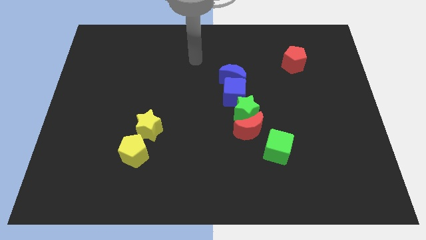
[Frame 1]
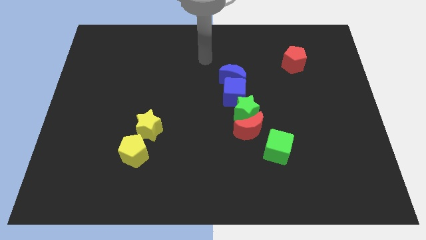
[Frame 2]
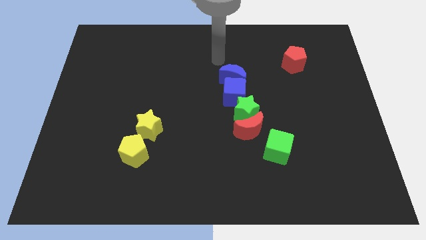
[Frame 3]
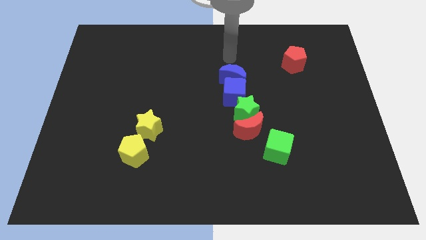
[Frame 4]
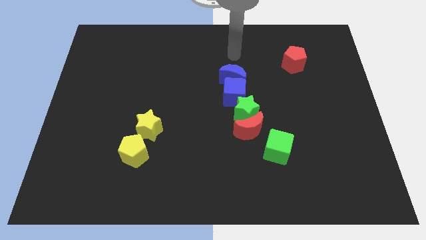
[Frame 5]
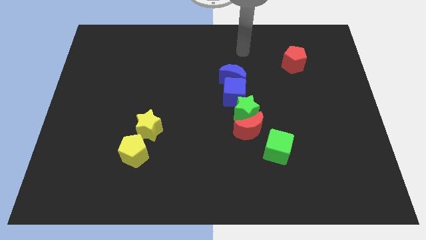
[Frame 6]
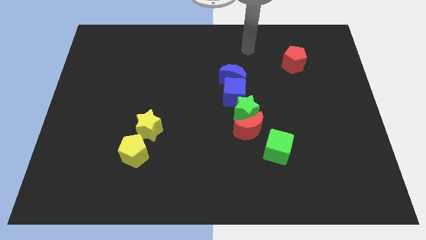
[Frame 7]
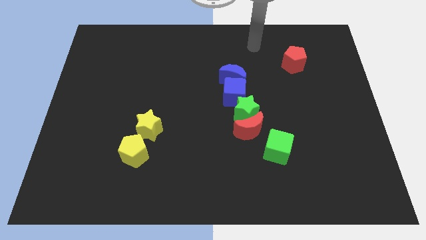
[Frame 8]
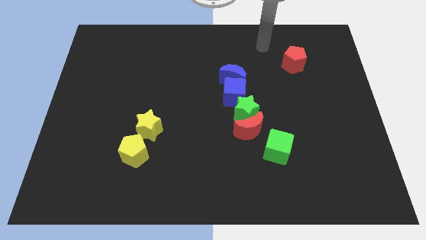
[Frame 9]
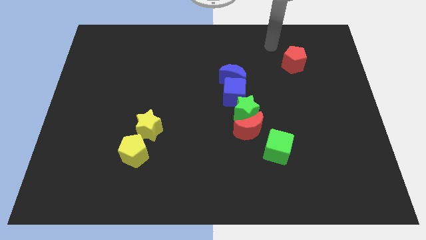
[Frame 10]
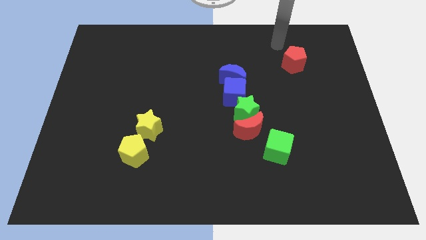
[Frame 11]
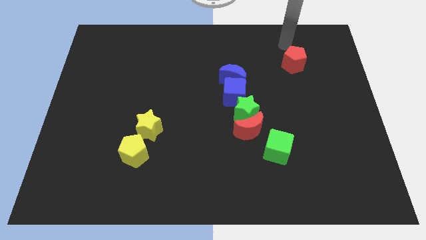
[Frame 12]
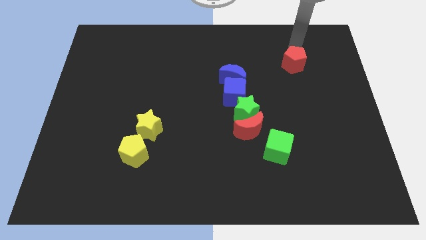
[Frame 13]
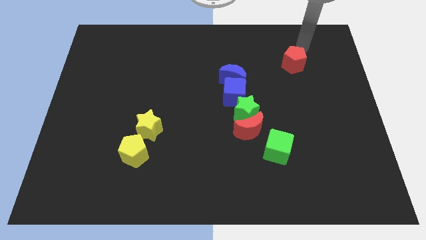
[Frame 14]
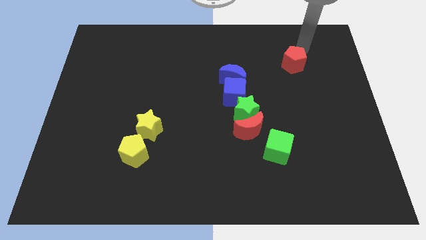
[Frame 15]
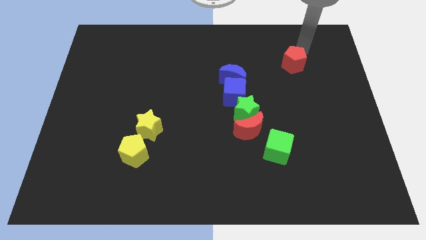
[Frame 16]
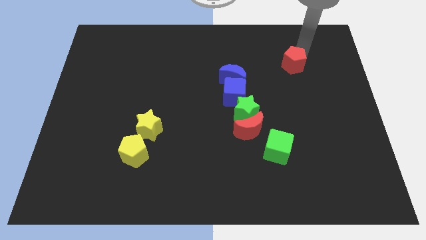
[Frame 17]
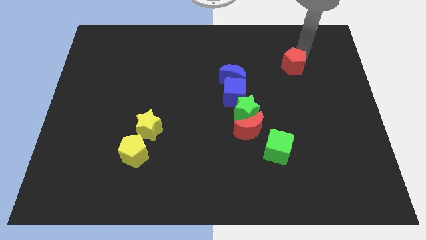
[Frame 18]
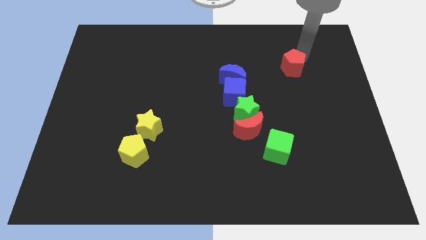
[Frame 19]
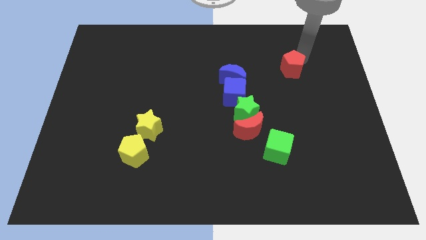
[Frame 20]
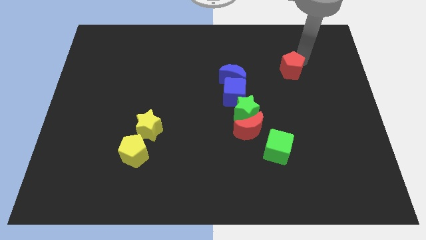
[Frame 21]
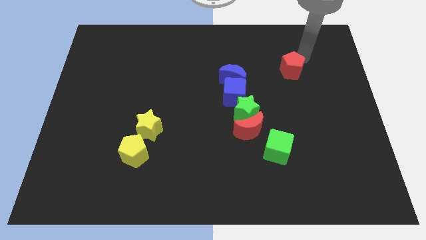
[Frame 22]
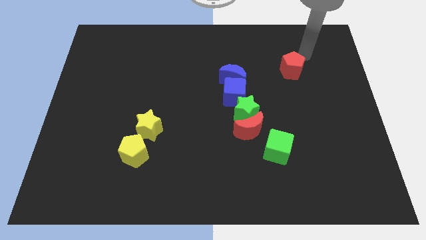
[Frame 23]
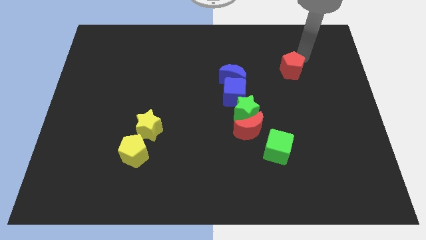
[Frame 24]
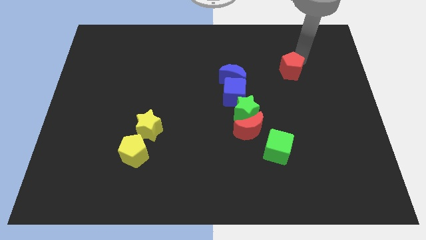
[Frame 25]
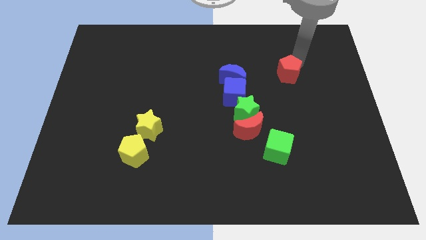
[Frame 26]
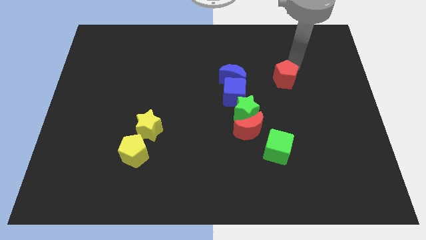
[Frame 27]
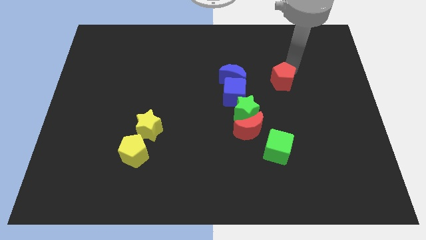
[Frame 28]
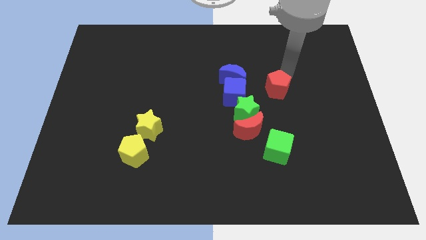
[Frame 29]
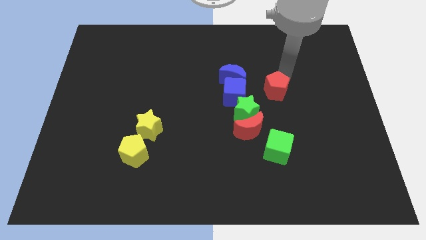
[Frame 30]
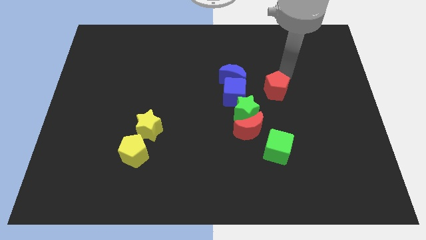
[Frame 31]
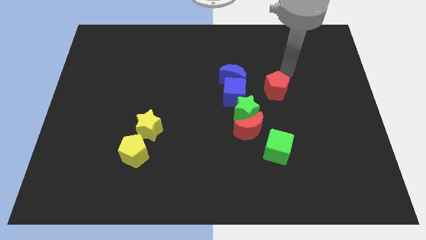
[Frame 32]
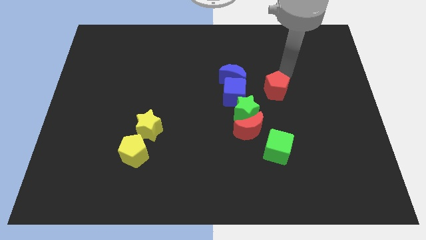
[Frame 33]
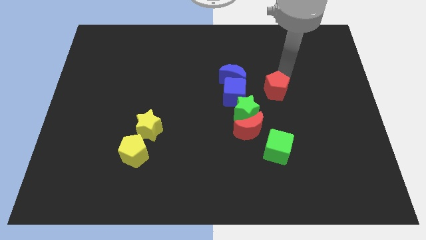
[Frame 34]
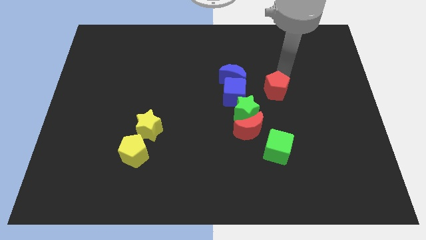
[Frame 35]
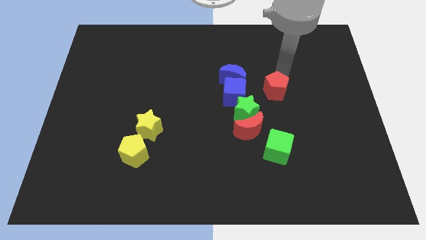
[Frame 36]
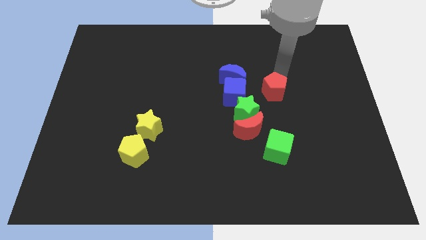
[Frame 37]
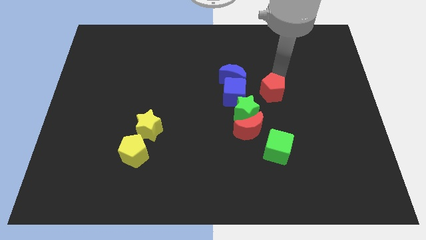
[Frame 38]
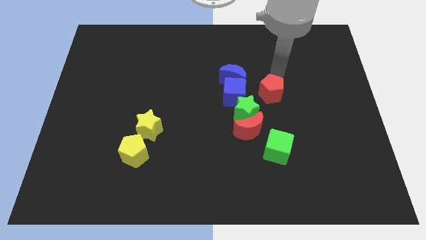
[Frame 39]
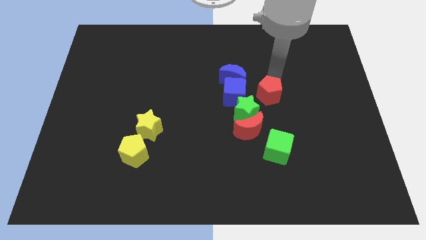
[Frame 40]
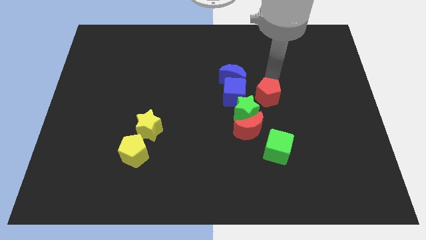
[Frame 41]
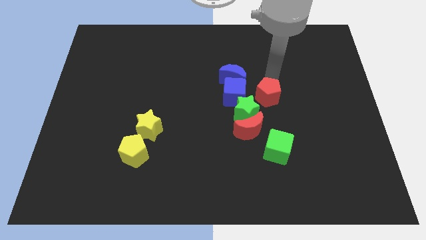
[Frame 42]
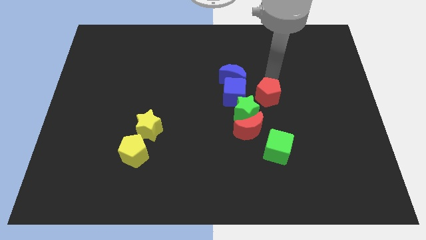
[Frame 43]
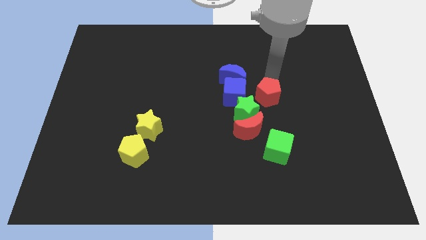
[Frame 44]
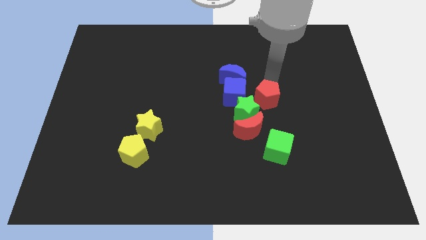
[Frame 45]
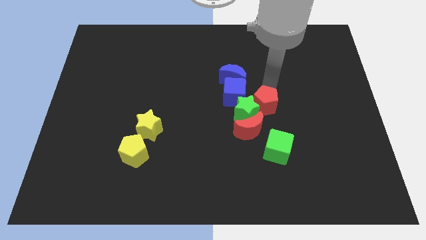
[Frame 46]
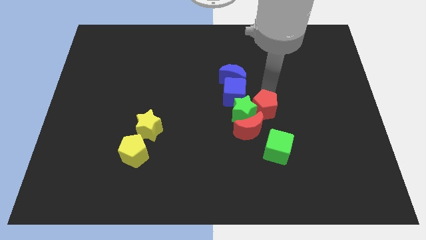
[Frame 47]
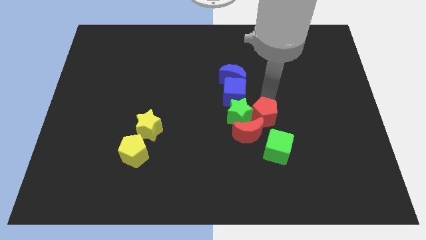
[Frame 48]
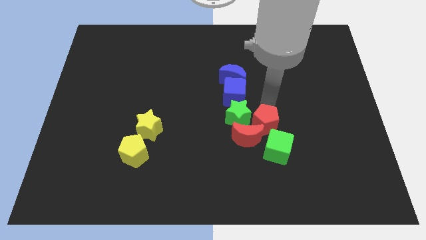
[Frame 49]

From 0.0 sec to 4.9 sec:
push the red pentagon to the red moon

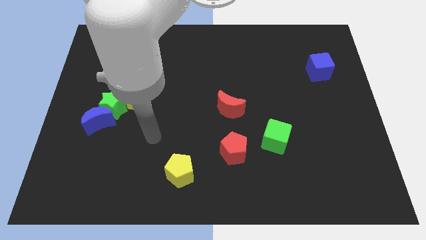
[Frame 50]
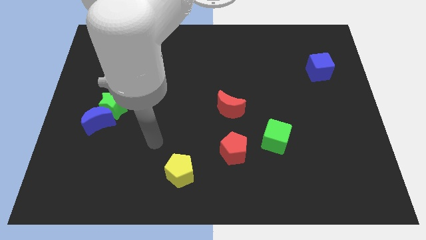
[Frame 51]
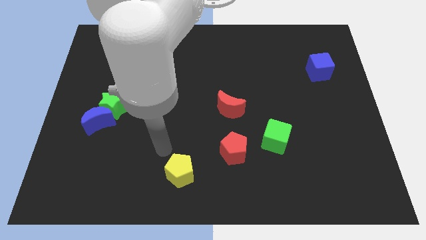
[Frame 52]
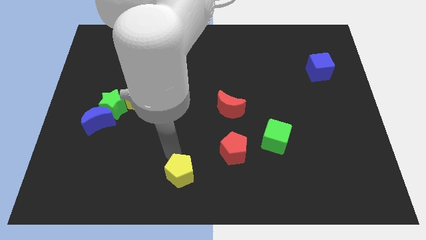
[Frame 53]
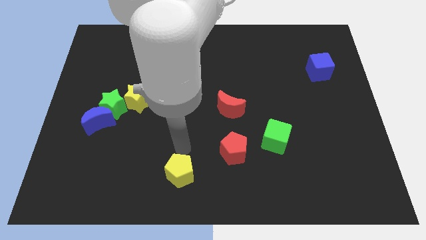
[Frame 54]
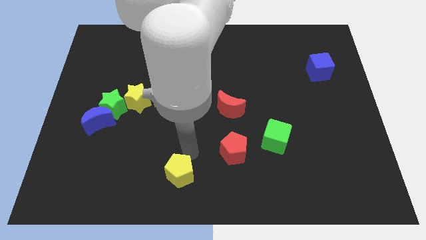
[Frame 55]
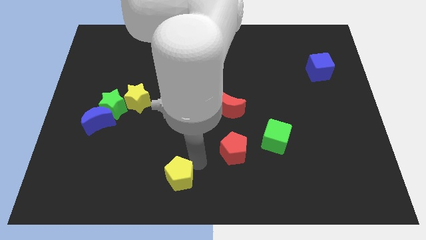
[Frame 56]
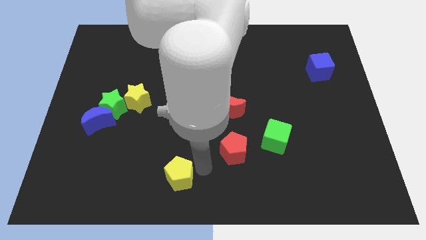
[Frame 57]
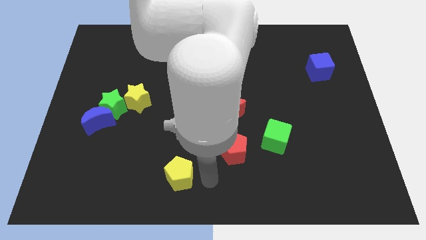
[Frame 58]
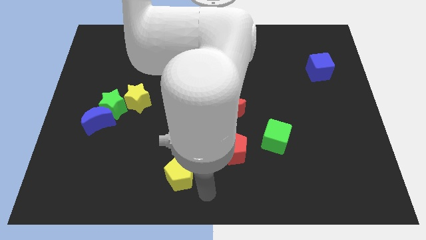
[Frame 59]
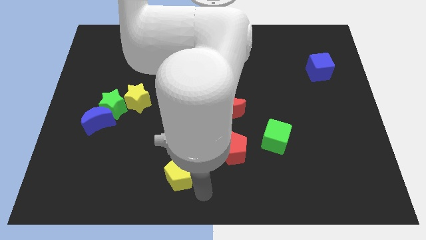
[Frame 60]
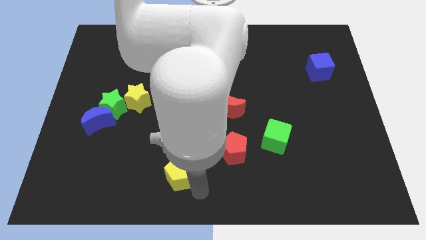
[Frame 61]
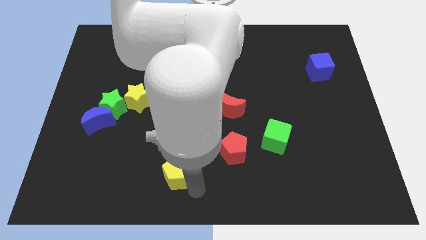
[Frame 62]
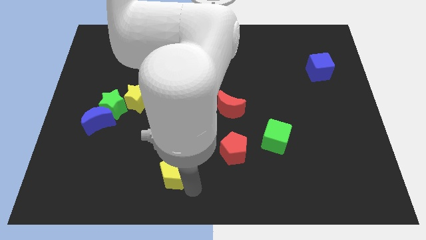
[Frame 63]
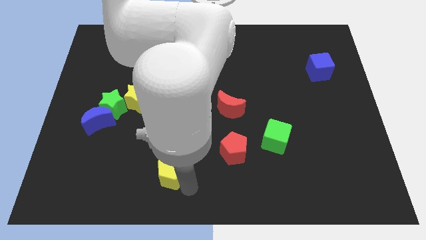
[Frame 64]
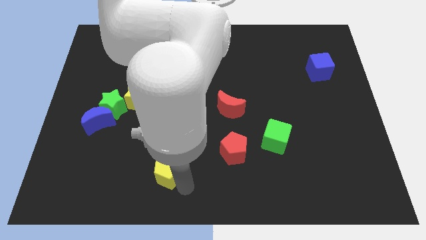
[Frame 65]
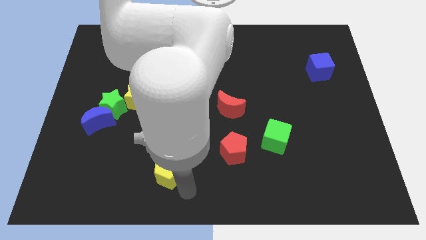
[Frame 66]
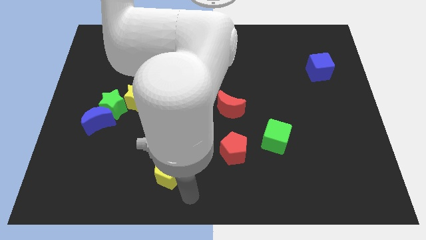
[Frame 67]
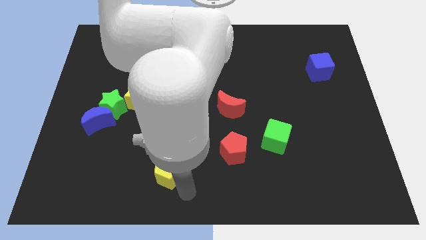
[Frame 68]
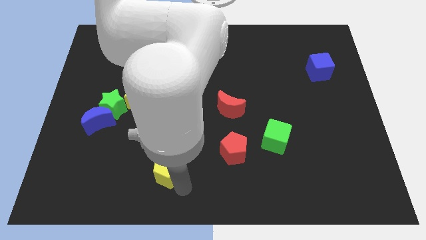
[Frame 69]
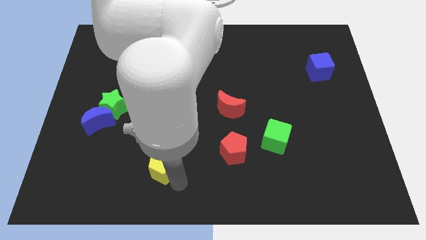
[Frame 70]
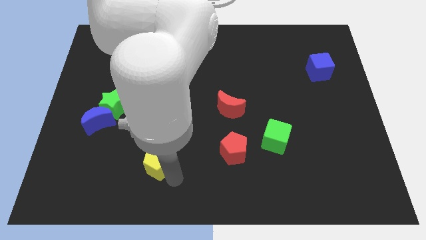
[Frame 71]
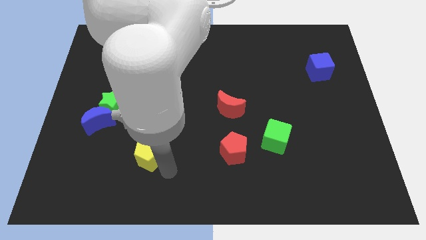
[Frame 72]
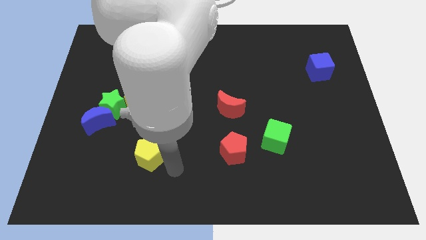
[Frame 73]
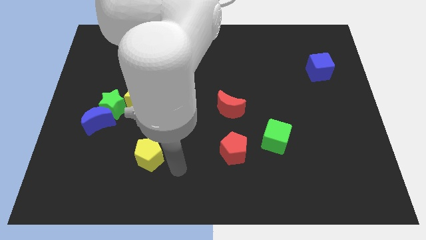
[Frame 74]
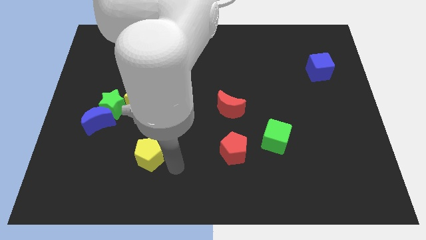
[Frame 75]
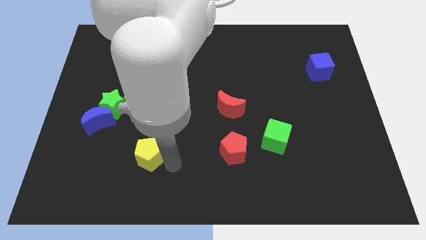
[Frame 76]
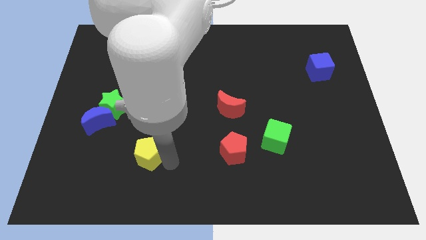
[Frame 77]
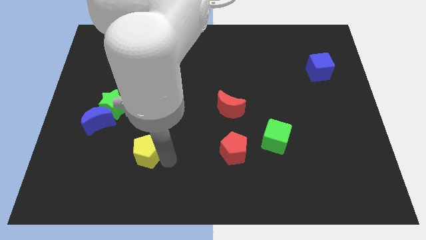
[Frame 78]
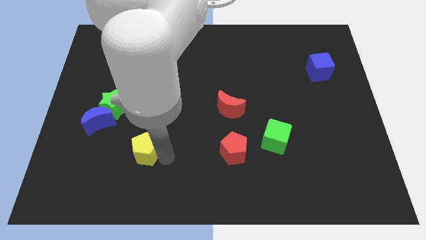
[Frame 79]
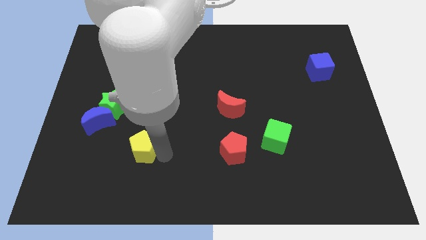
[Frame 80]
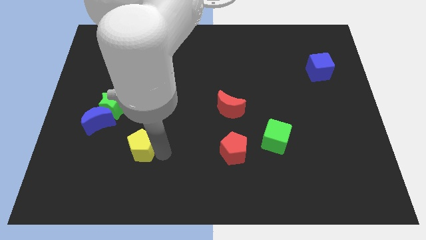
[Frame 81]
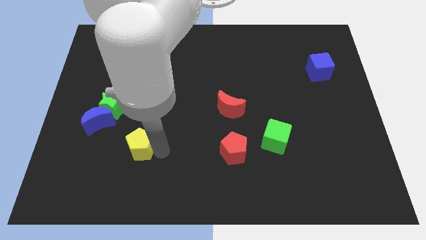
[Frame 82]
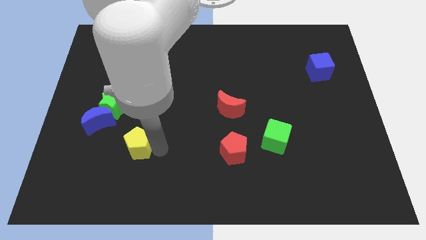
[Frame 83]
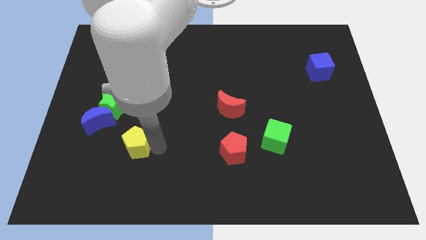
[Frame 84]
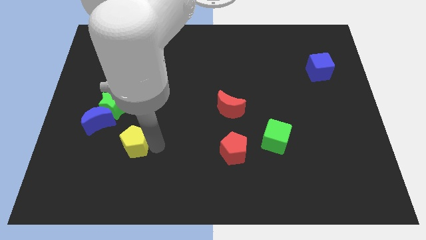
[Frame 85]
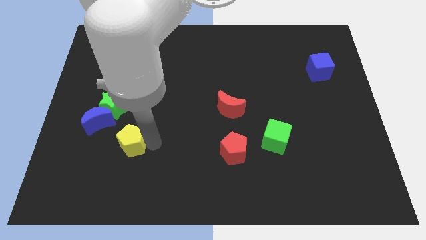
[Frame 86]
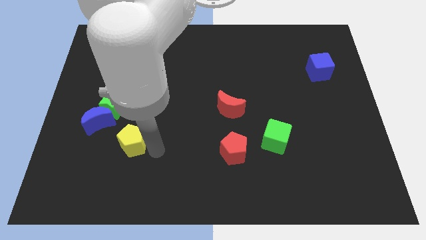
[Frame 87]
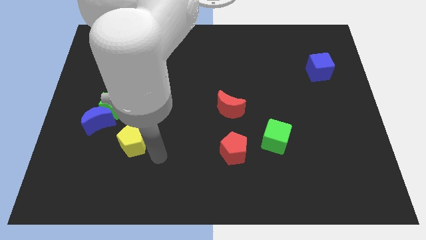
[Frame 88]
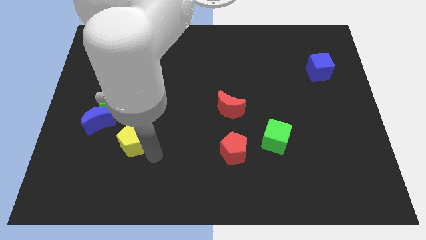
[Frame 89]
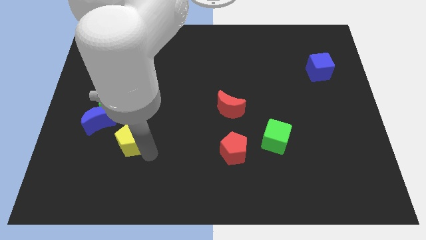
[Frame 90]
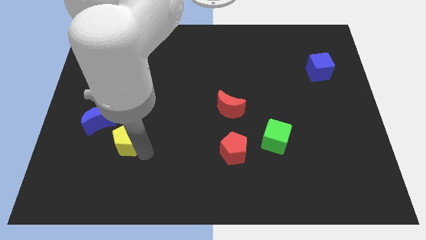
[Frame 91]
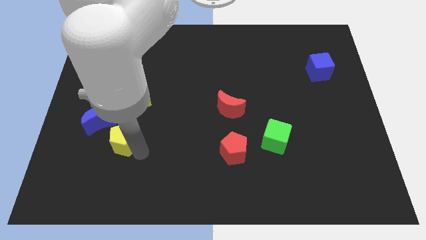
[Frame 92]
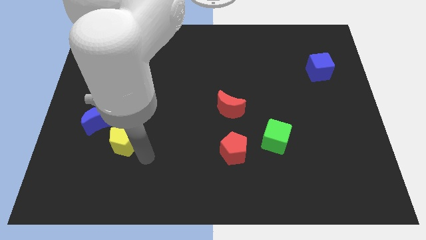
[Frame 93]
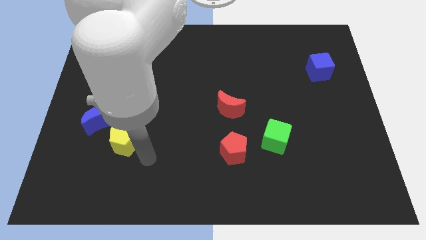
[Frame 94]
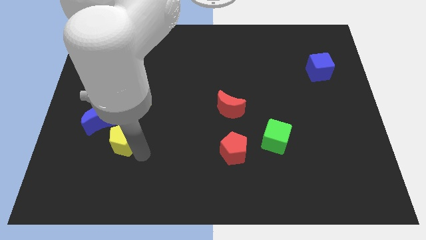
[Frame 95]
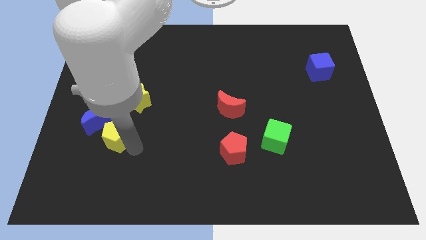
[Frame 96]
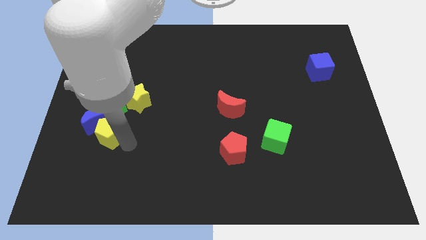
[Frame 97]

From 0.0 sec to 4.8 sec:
put the yellow pentagon close to the blue moon
